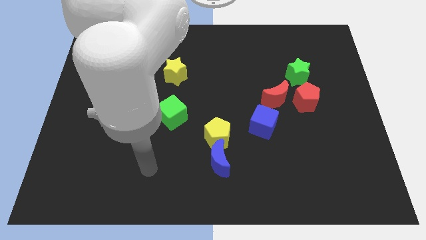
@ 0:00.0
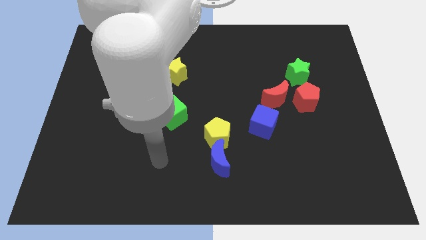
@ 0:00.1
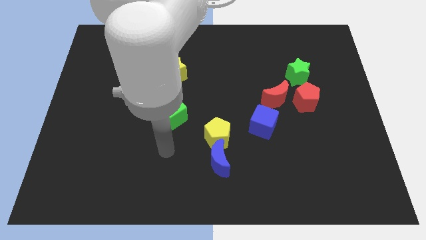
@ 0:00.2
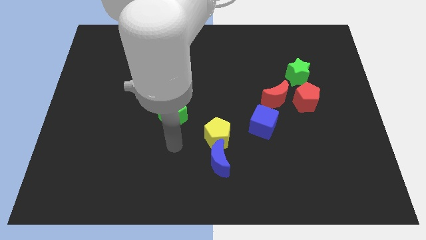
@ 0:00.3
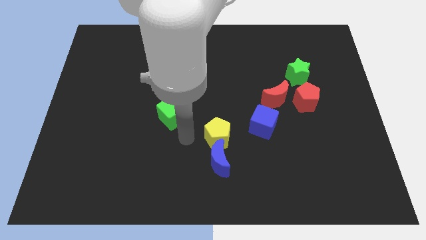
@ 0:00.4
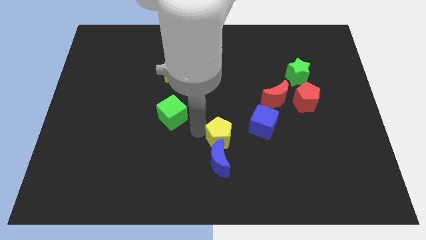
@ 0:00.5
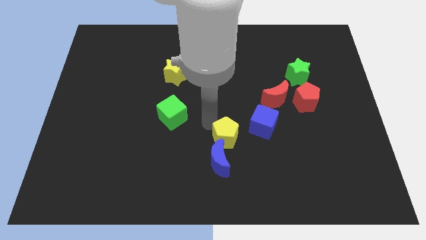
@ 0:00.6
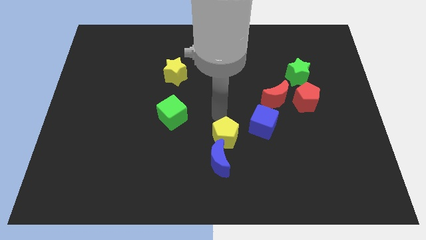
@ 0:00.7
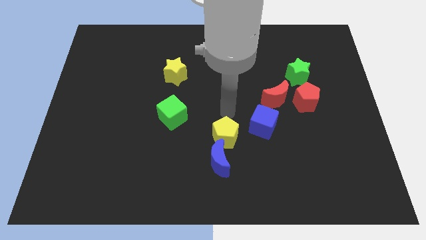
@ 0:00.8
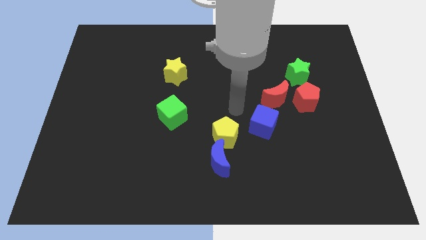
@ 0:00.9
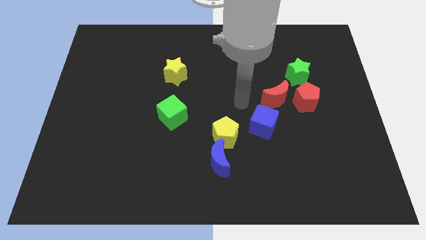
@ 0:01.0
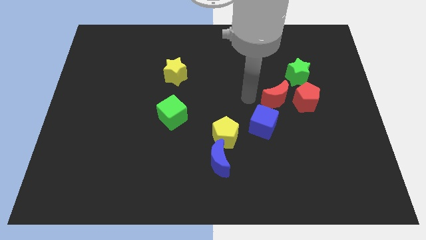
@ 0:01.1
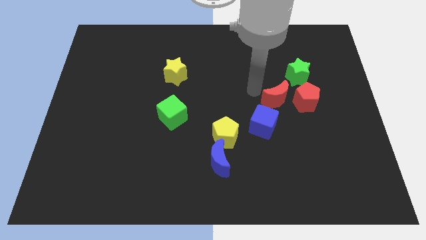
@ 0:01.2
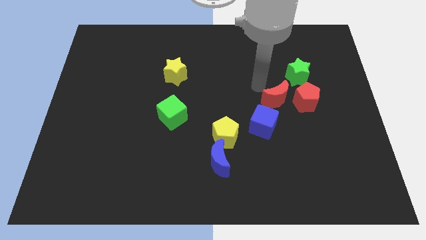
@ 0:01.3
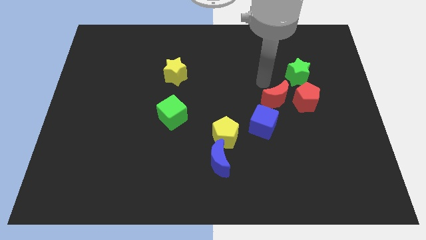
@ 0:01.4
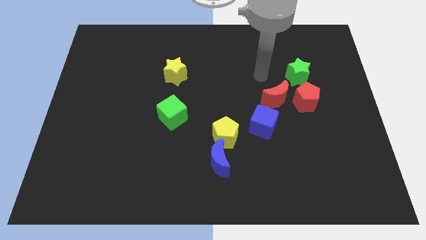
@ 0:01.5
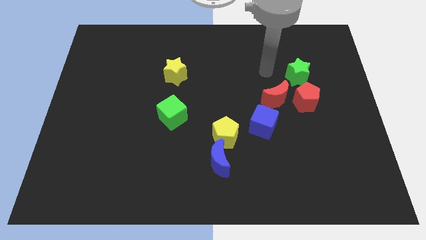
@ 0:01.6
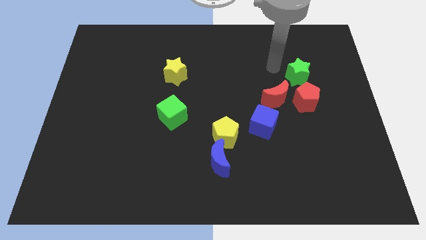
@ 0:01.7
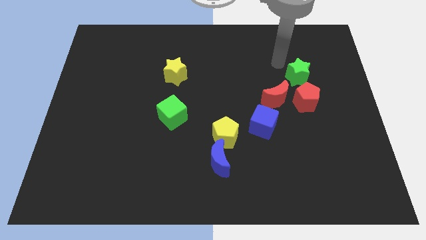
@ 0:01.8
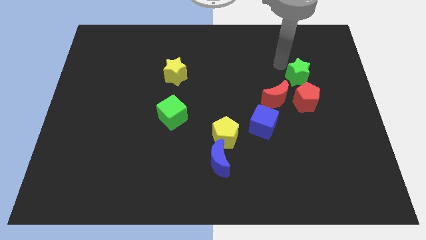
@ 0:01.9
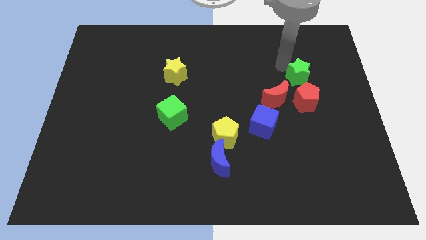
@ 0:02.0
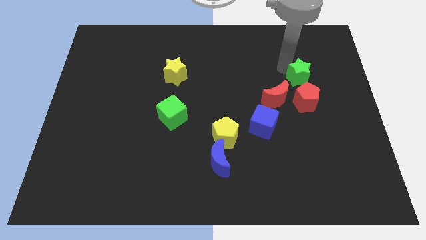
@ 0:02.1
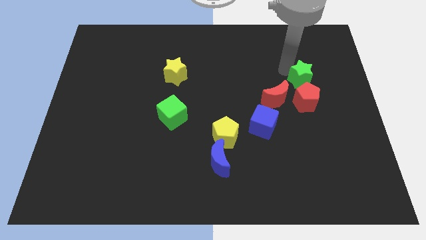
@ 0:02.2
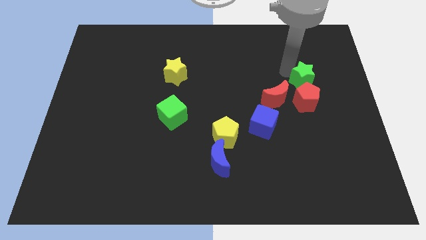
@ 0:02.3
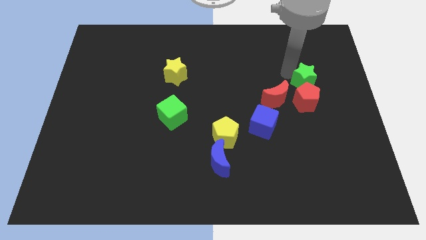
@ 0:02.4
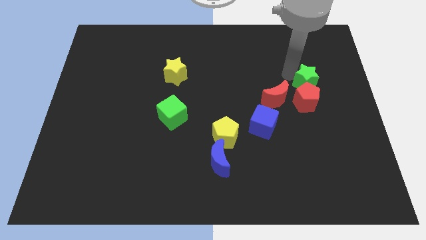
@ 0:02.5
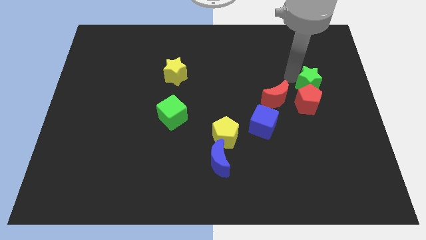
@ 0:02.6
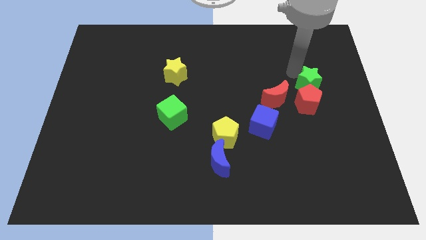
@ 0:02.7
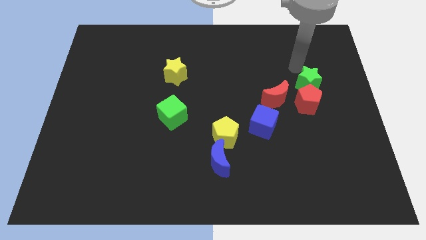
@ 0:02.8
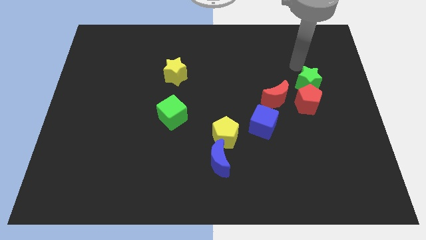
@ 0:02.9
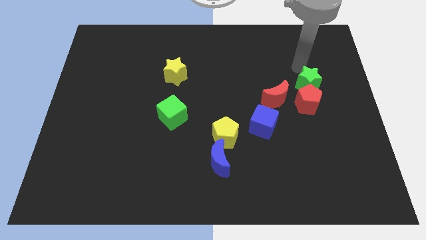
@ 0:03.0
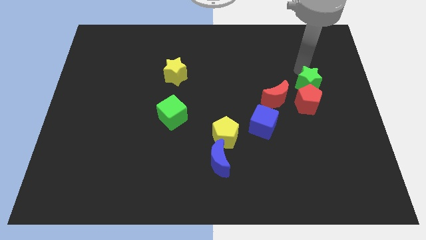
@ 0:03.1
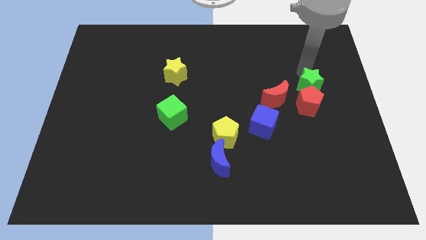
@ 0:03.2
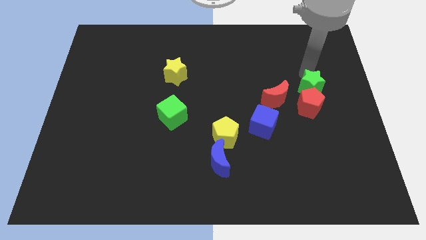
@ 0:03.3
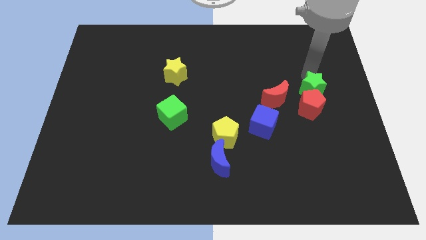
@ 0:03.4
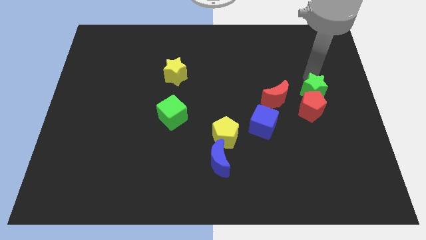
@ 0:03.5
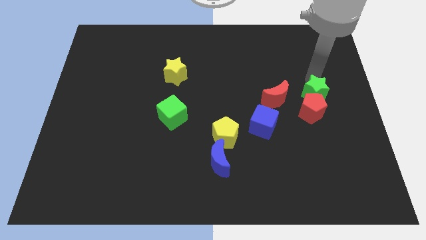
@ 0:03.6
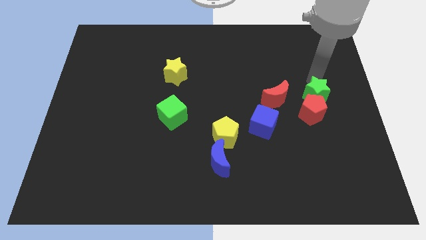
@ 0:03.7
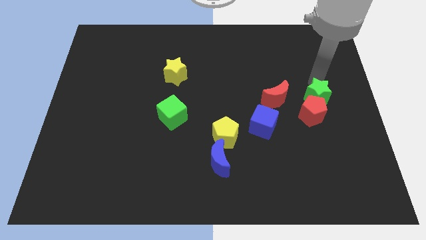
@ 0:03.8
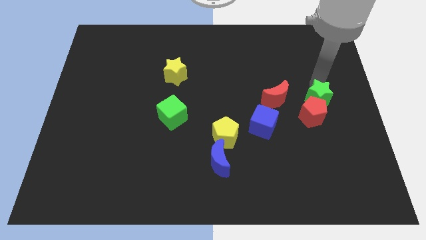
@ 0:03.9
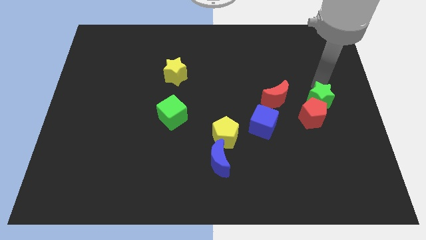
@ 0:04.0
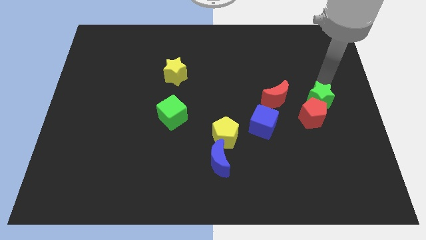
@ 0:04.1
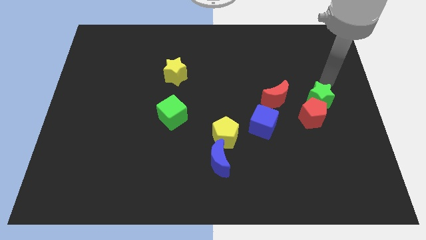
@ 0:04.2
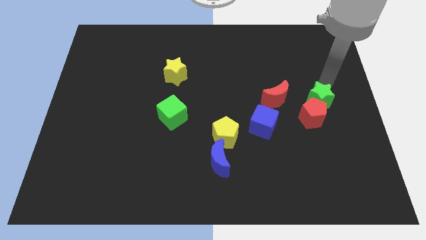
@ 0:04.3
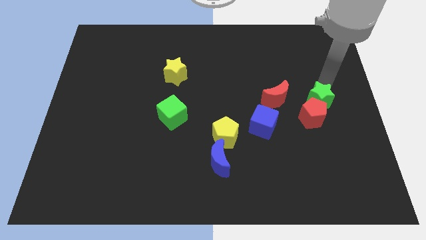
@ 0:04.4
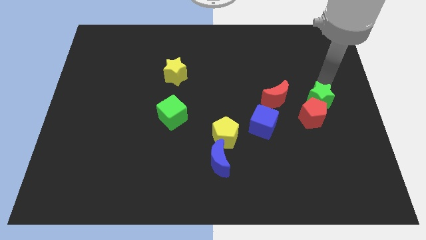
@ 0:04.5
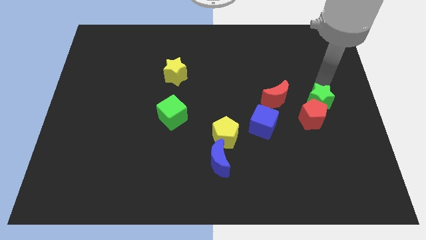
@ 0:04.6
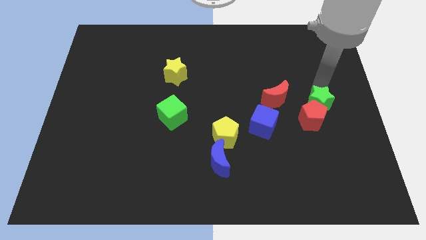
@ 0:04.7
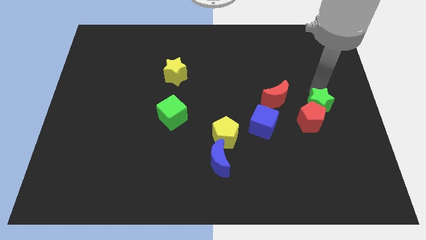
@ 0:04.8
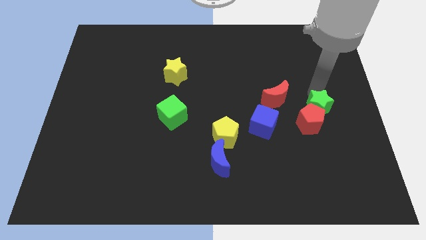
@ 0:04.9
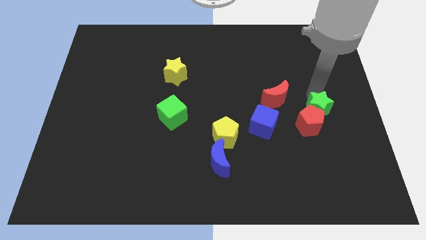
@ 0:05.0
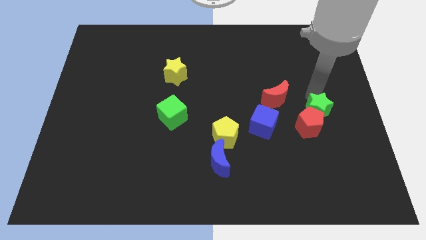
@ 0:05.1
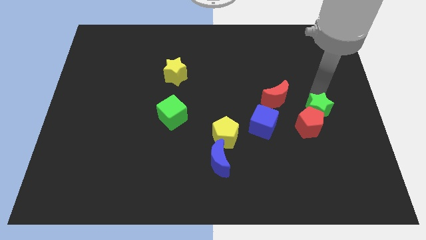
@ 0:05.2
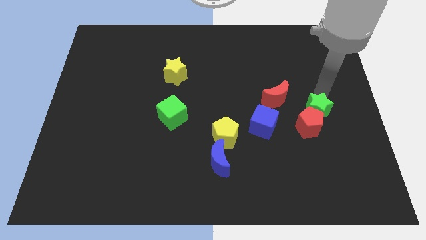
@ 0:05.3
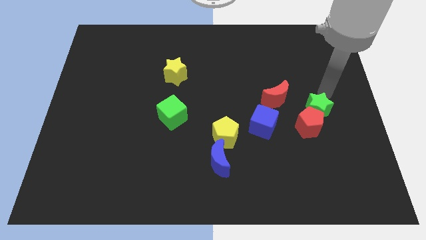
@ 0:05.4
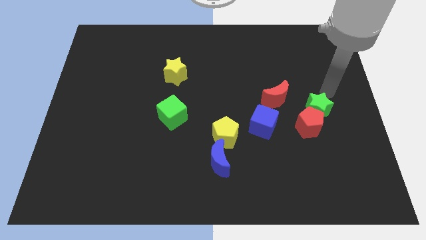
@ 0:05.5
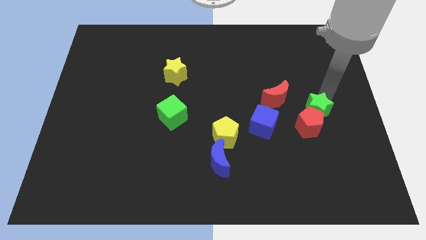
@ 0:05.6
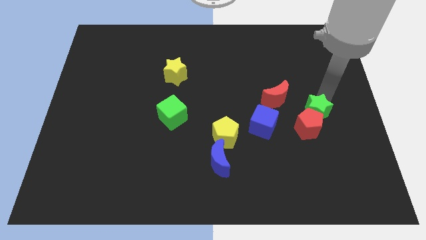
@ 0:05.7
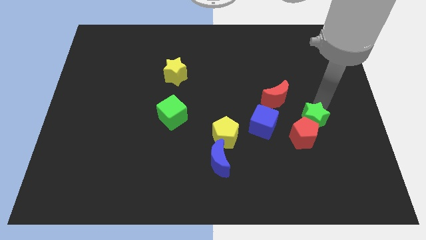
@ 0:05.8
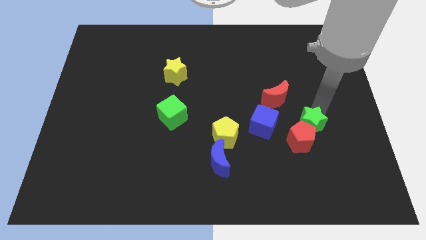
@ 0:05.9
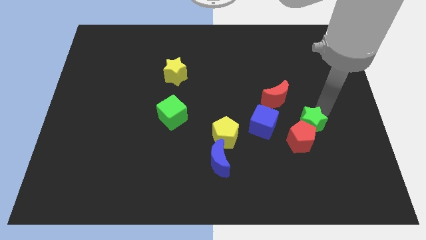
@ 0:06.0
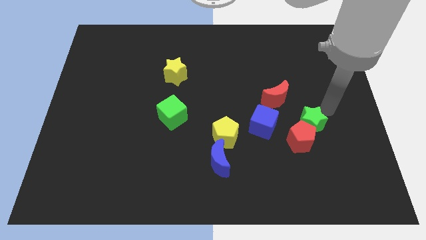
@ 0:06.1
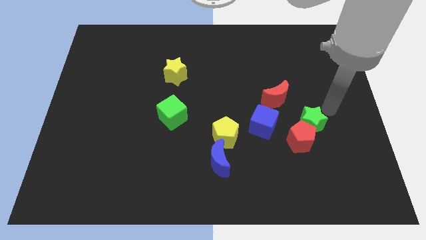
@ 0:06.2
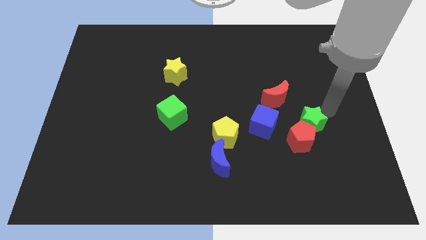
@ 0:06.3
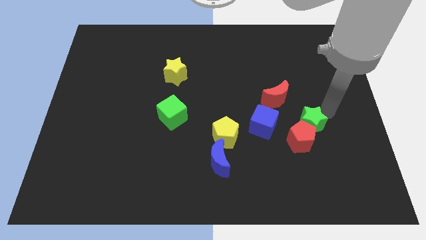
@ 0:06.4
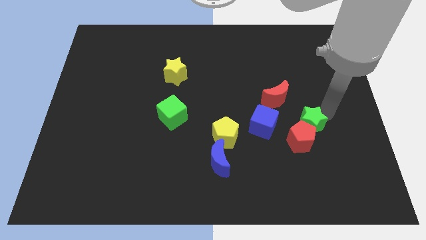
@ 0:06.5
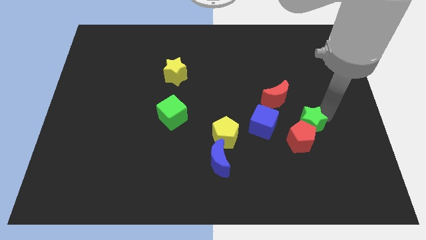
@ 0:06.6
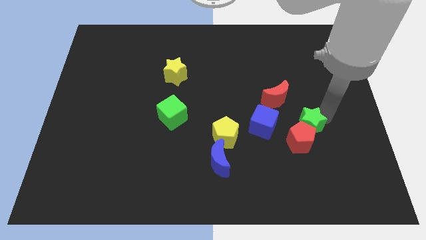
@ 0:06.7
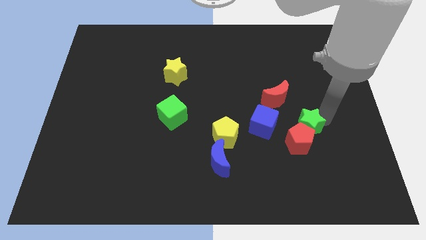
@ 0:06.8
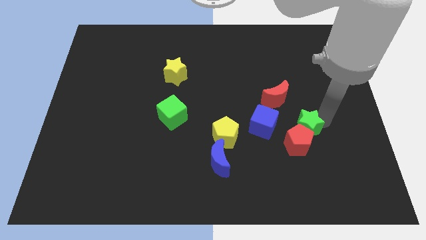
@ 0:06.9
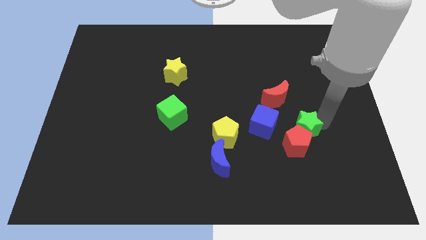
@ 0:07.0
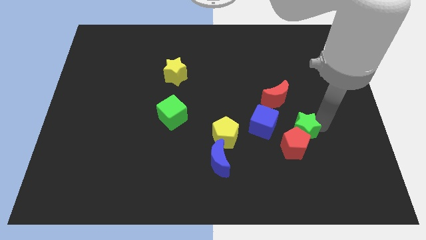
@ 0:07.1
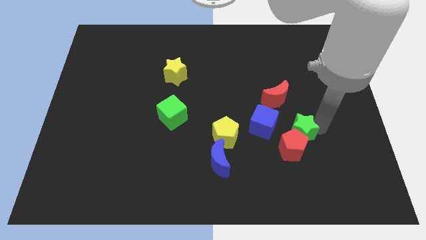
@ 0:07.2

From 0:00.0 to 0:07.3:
move the green star to the bottom right of the blue cube
